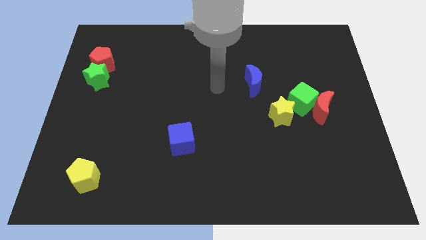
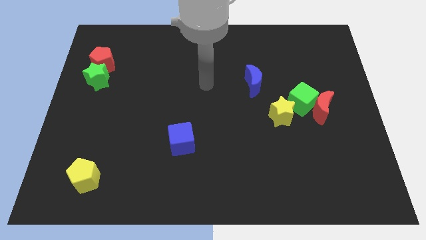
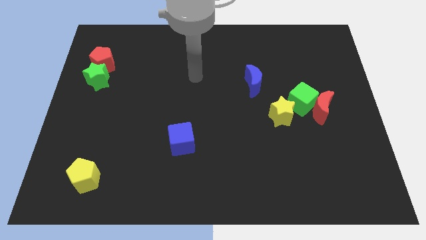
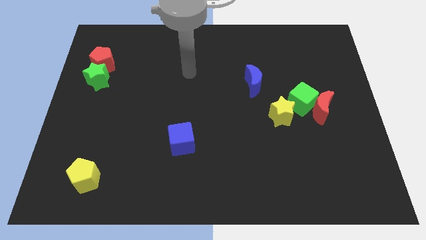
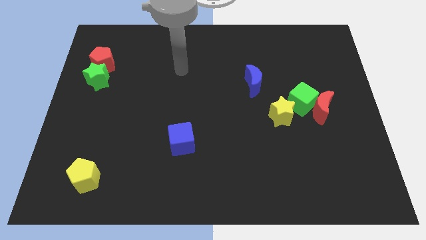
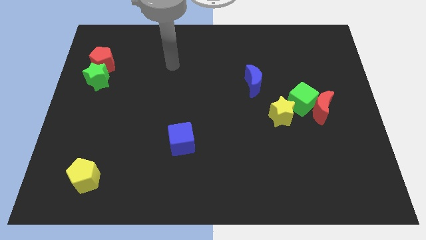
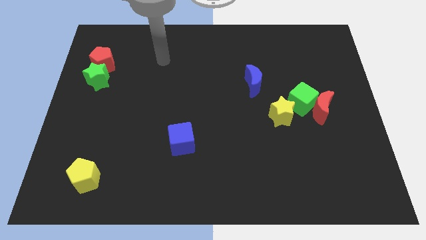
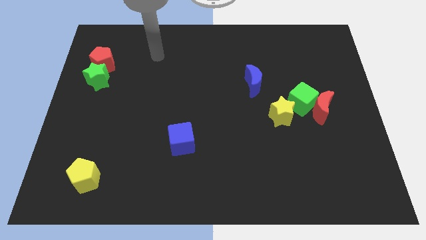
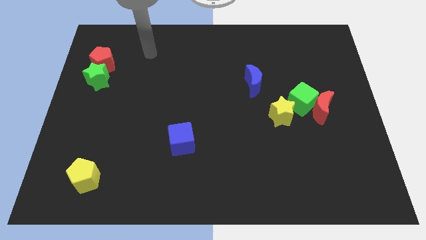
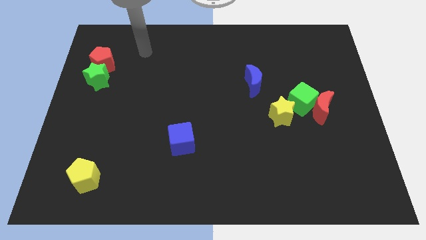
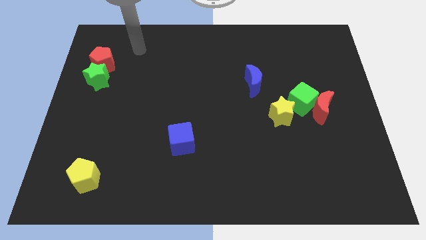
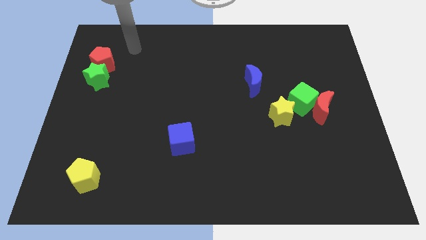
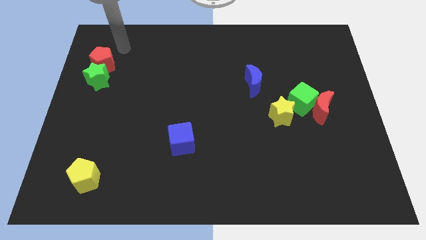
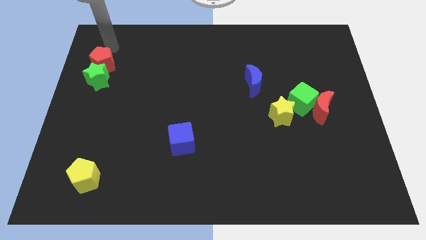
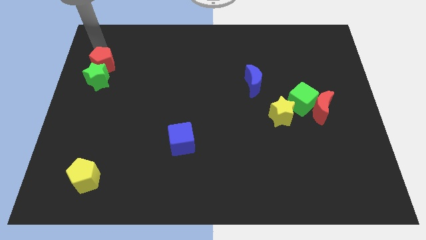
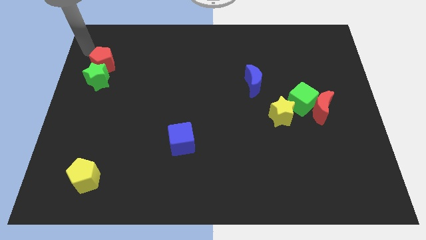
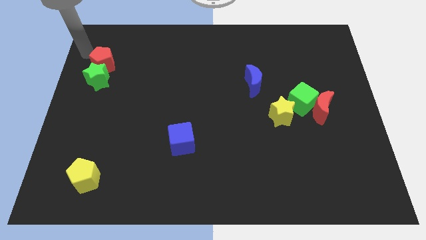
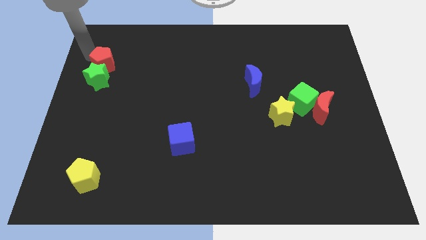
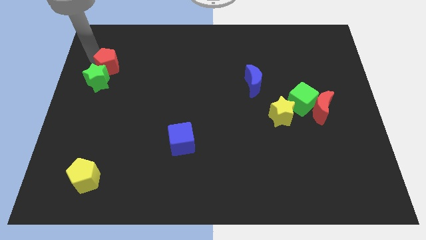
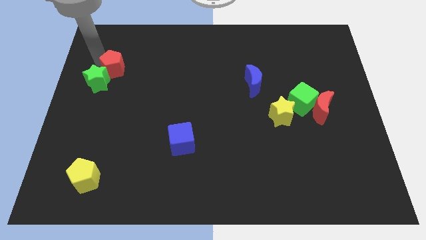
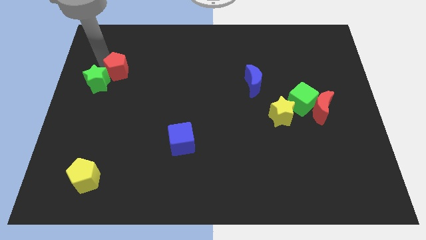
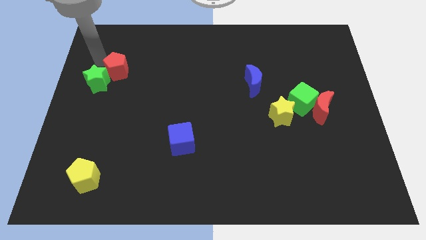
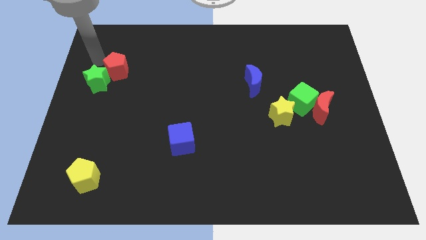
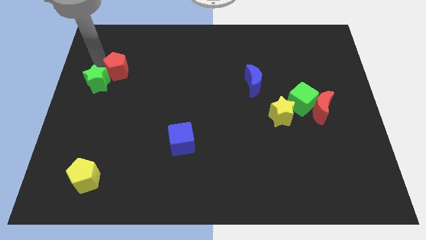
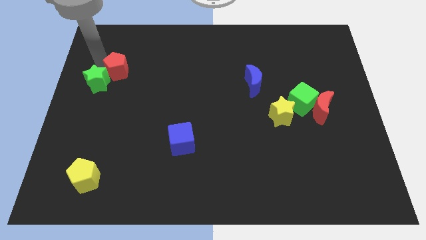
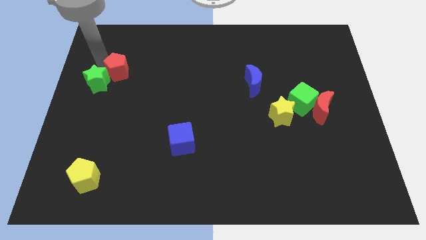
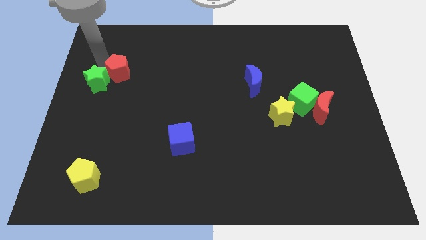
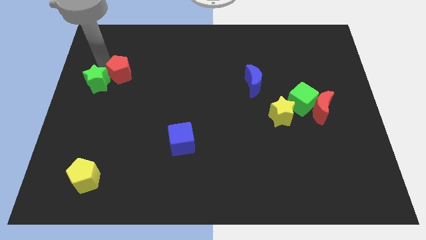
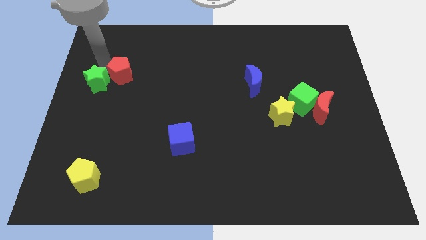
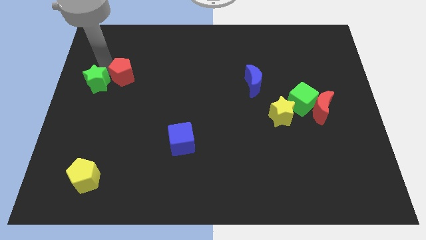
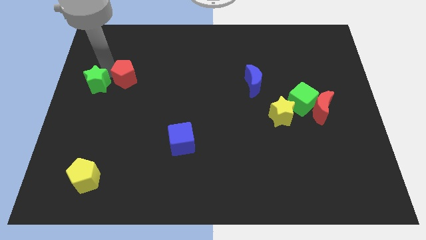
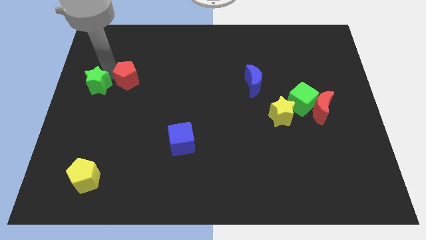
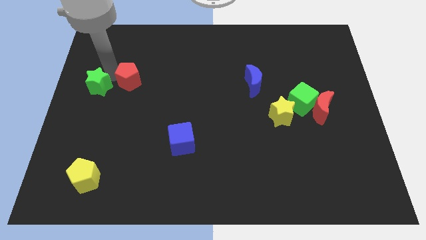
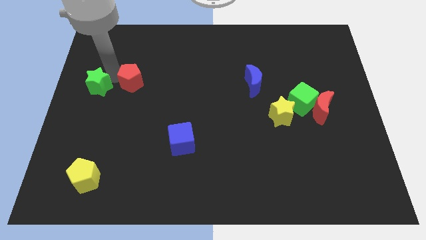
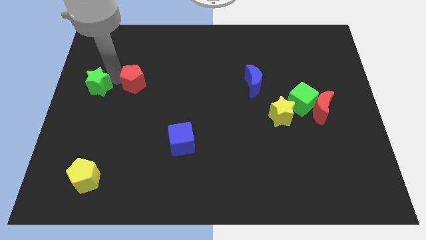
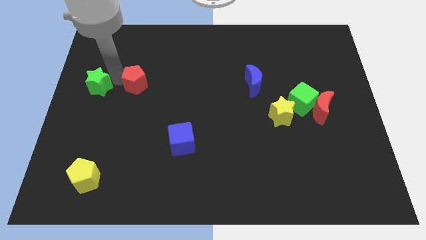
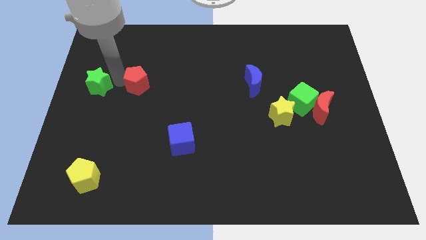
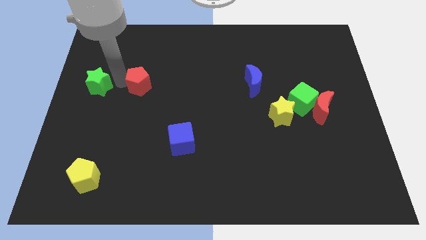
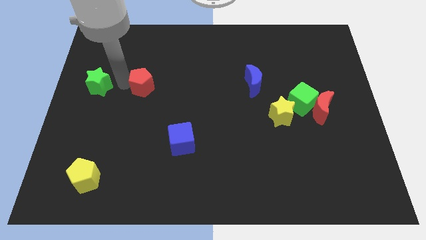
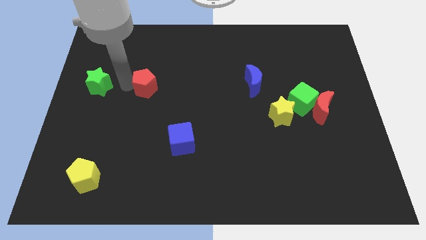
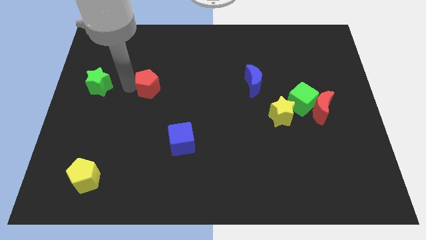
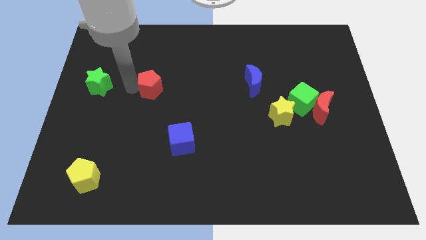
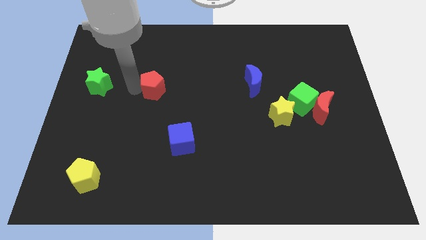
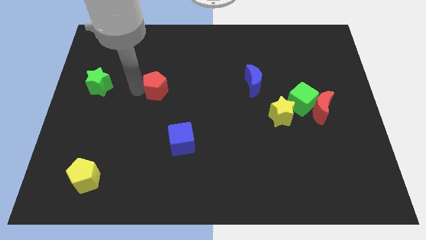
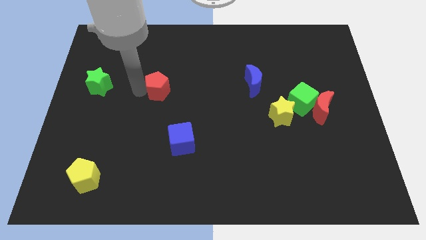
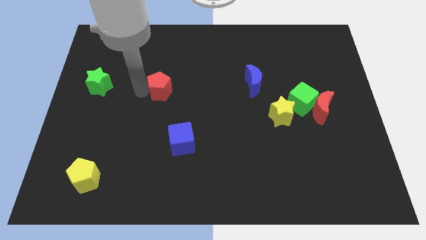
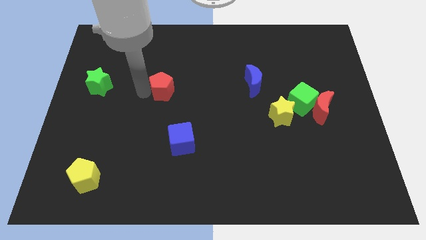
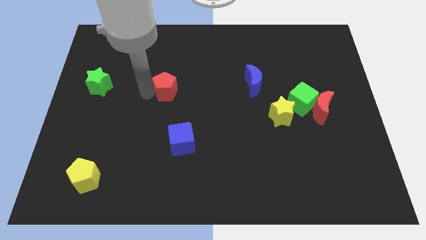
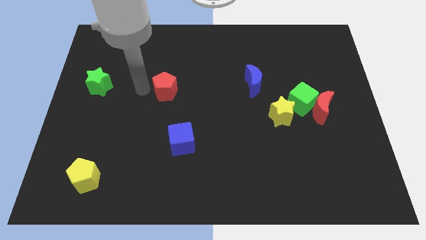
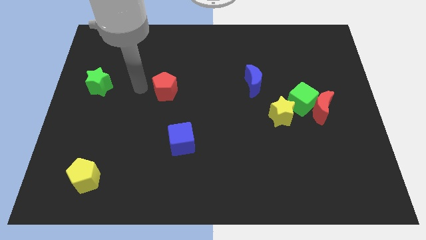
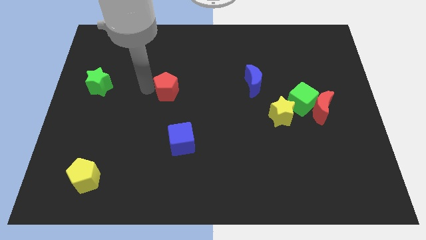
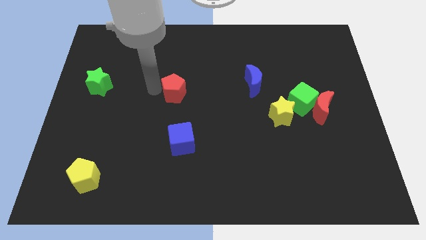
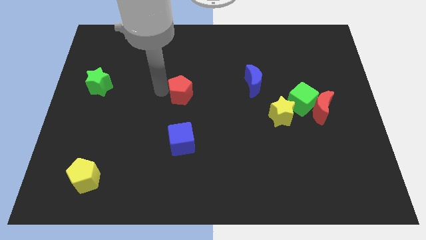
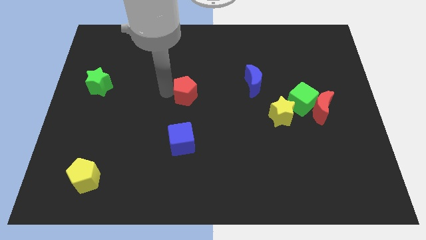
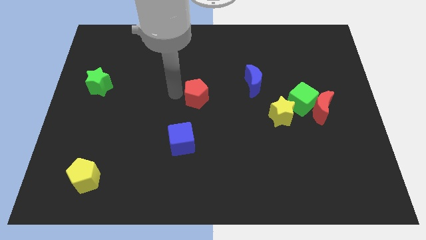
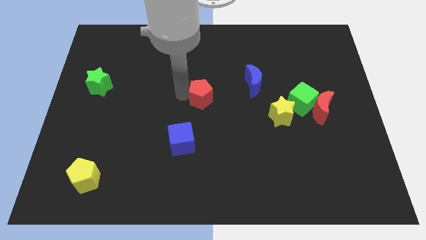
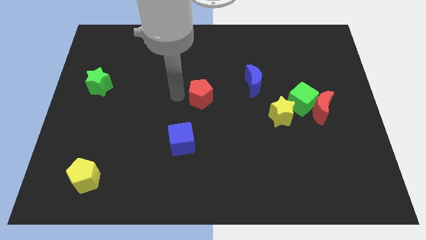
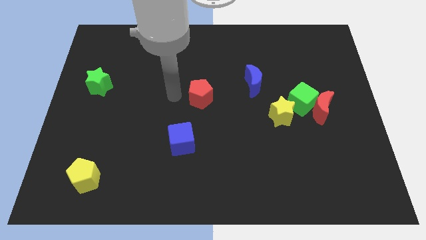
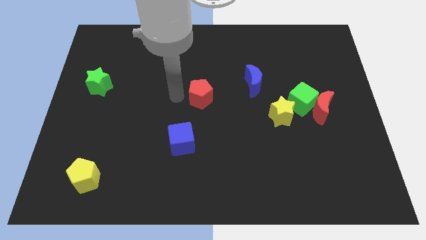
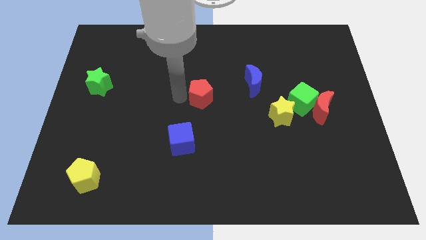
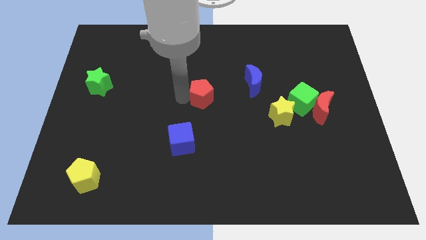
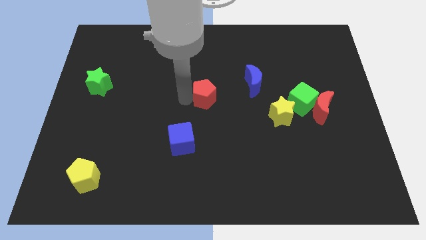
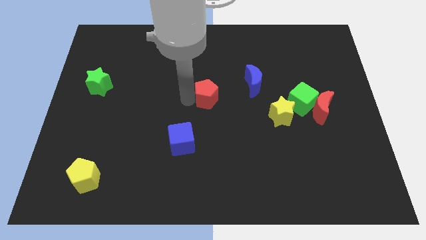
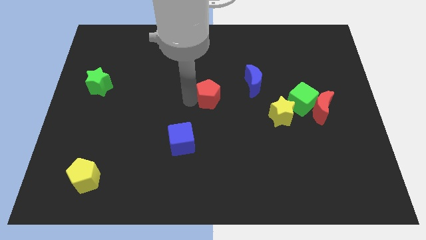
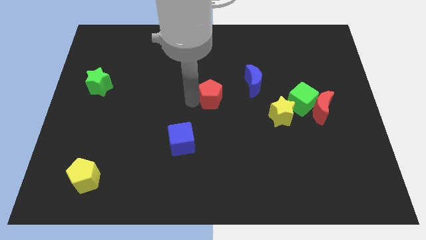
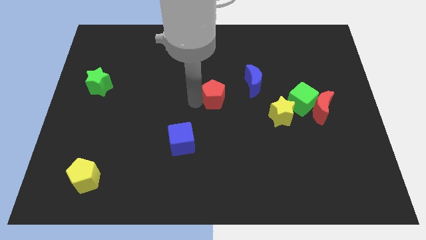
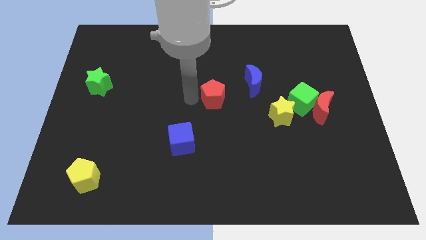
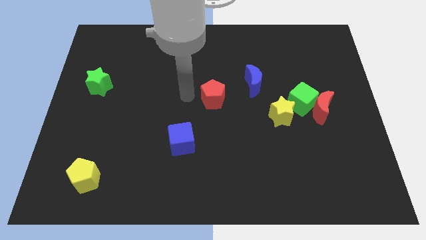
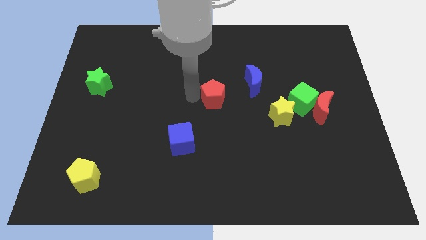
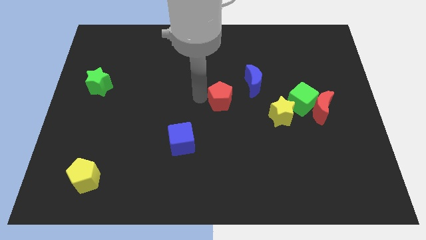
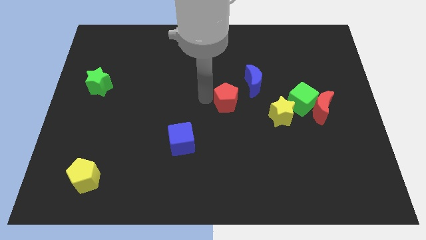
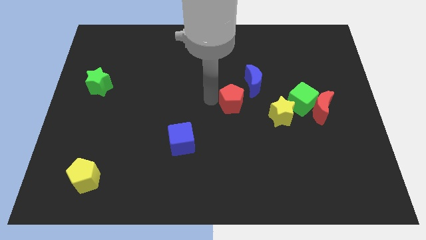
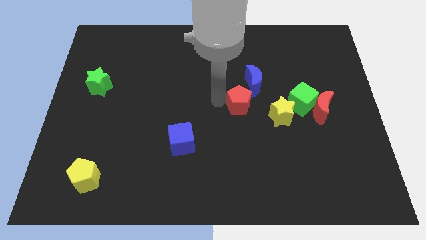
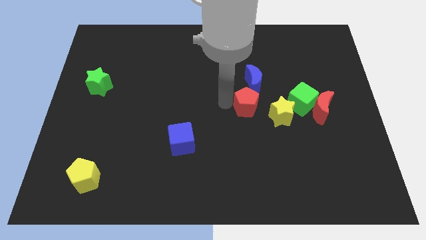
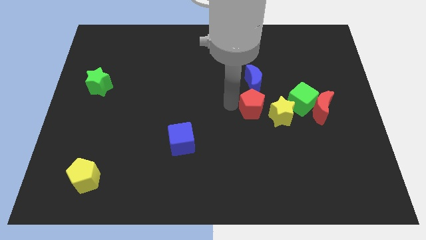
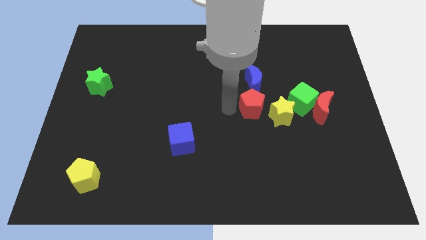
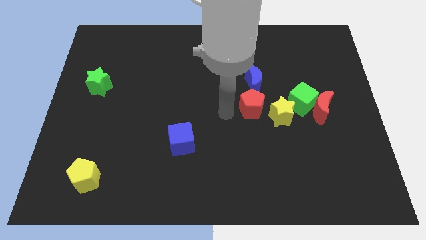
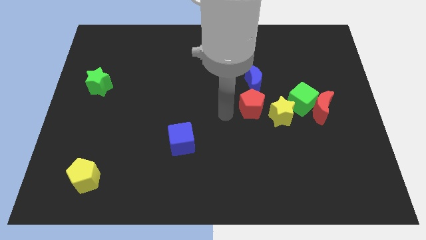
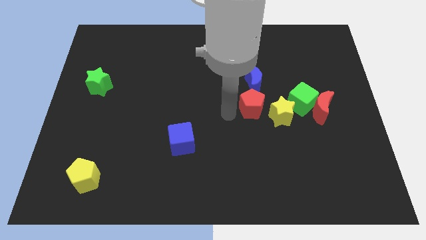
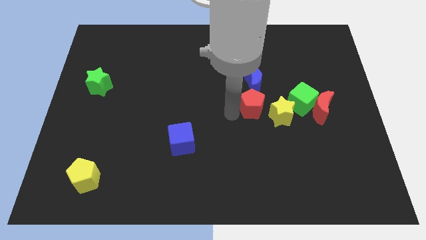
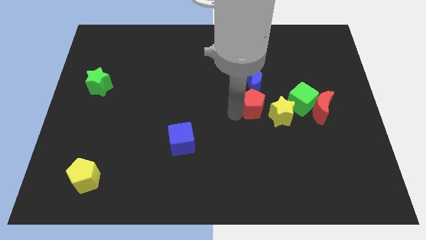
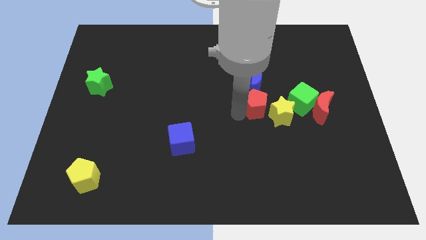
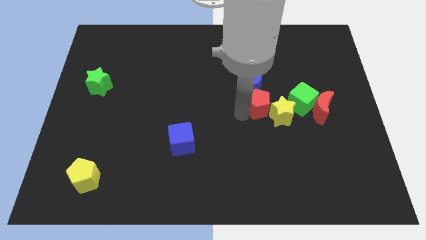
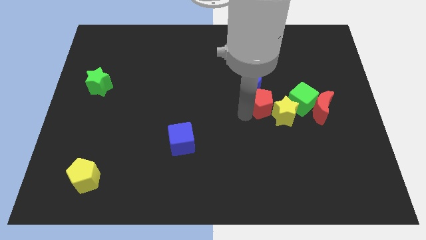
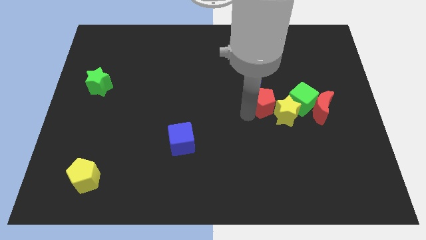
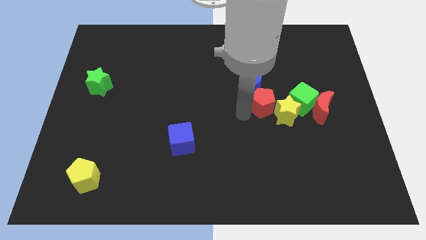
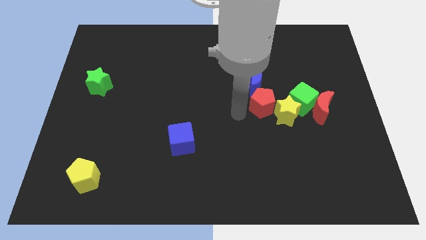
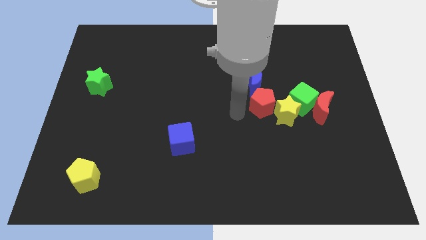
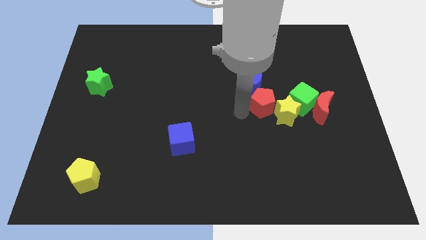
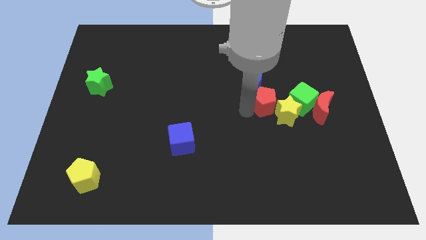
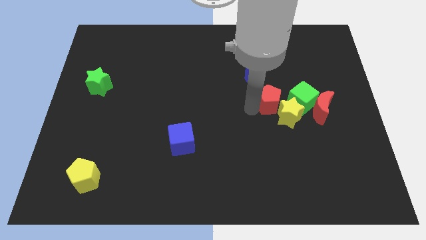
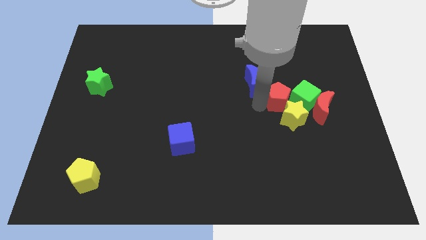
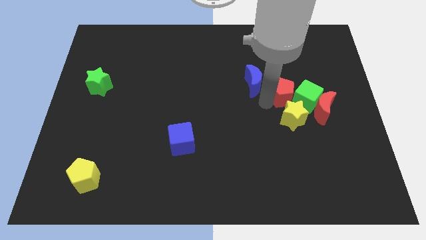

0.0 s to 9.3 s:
slide the red pentagon to the green cube
